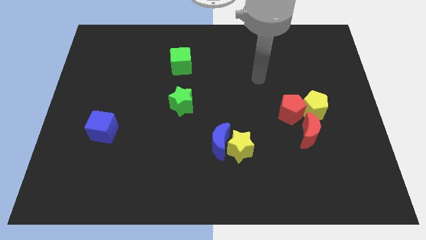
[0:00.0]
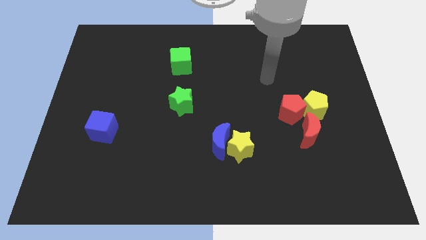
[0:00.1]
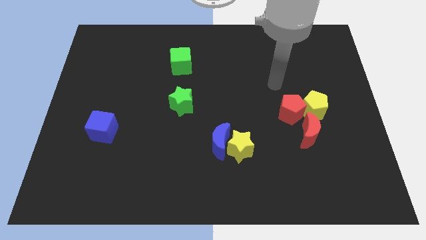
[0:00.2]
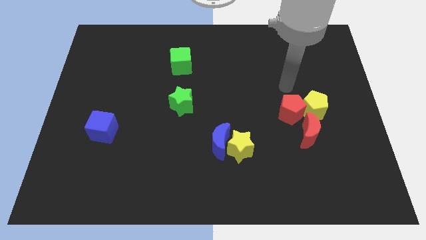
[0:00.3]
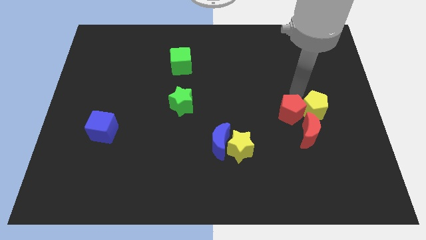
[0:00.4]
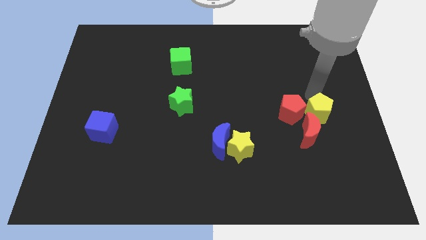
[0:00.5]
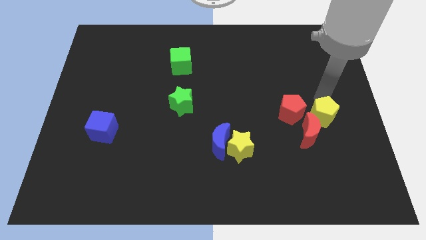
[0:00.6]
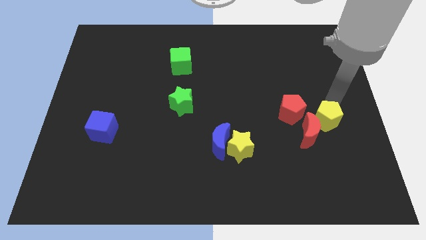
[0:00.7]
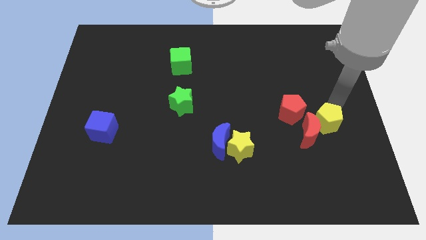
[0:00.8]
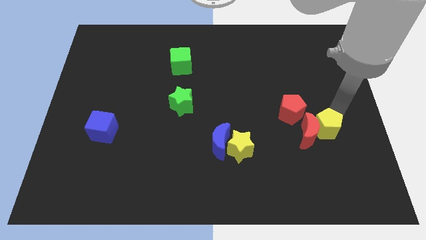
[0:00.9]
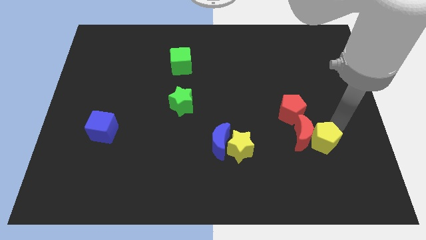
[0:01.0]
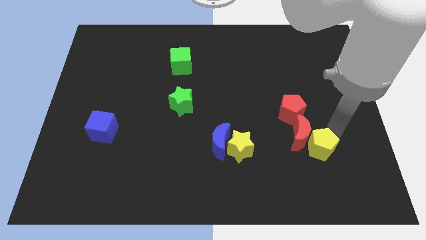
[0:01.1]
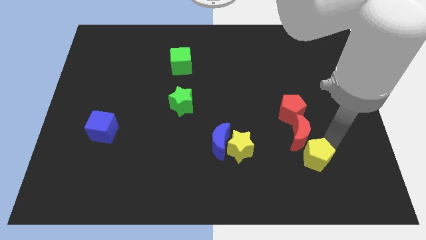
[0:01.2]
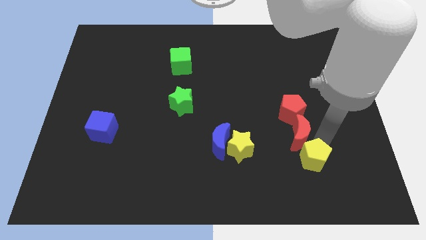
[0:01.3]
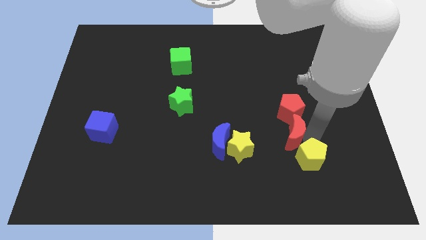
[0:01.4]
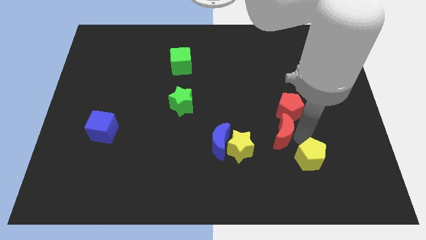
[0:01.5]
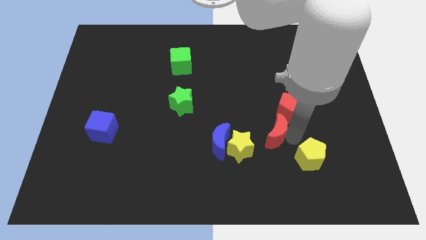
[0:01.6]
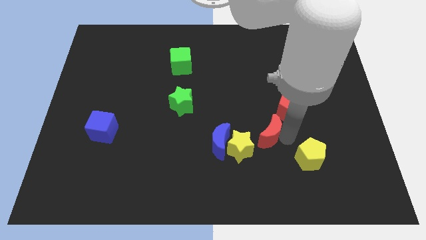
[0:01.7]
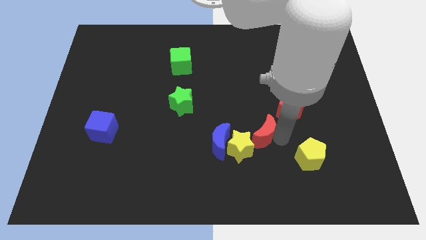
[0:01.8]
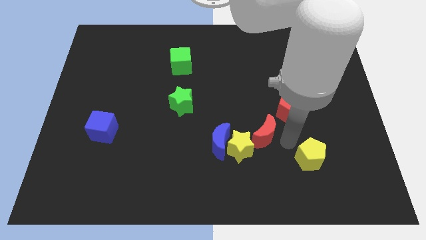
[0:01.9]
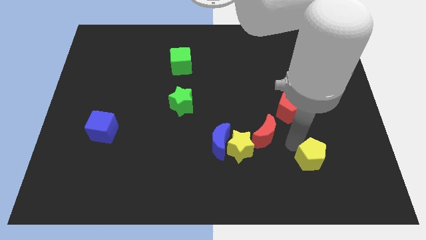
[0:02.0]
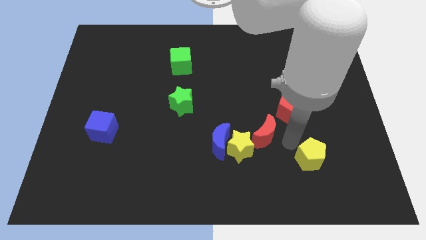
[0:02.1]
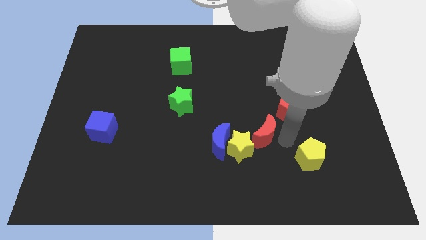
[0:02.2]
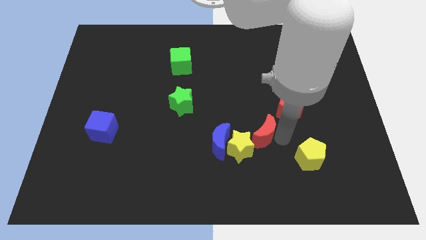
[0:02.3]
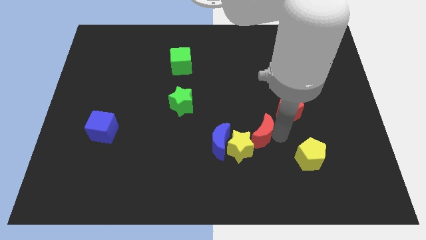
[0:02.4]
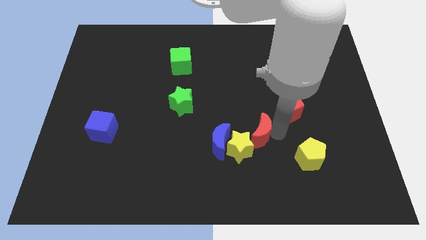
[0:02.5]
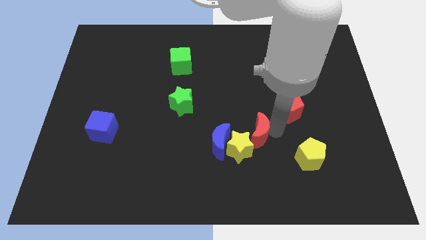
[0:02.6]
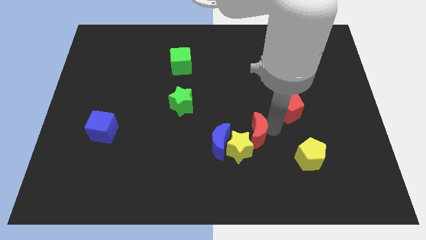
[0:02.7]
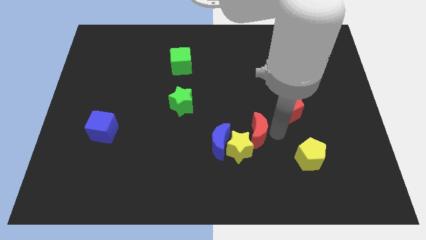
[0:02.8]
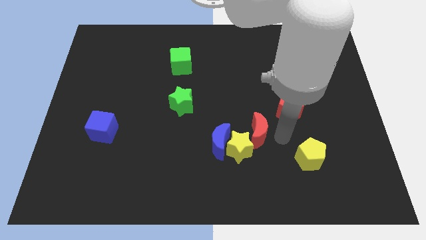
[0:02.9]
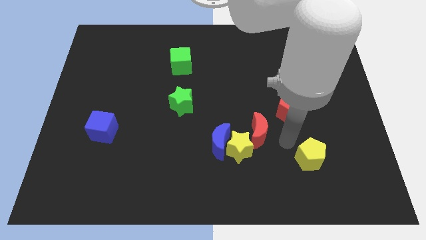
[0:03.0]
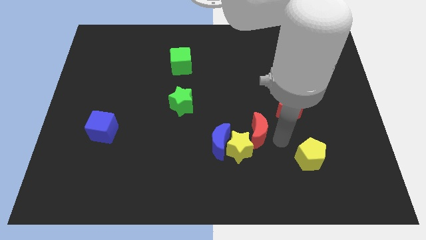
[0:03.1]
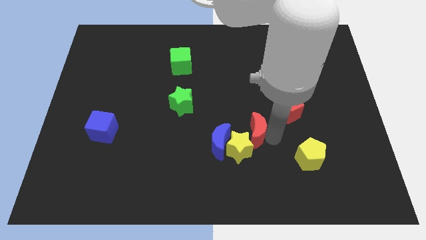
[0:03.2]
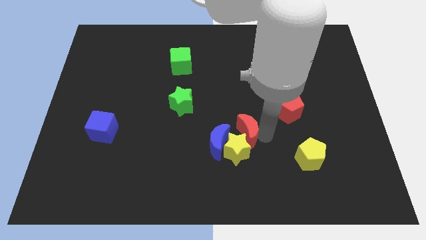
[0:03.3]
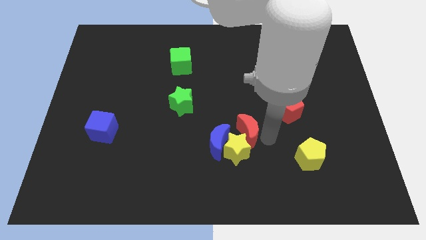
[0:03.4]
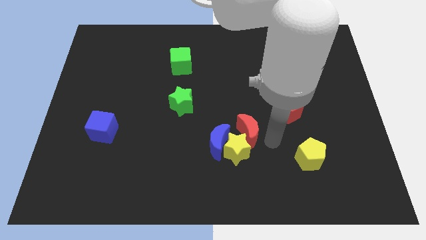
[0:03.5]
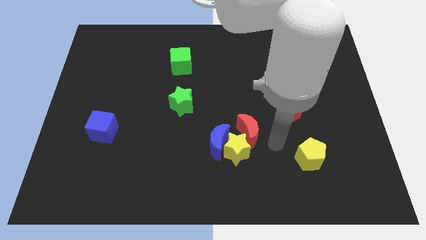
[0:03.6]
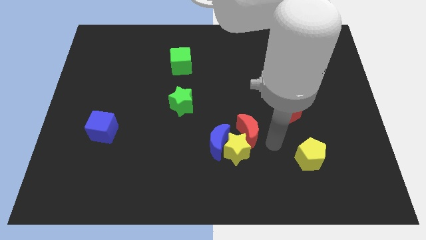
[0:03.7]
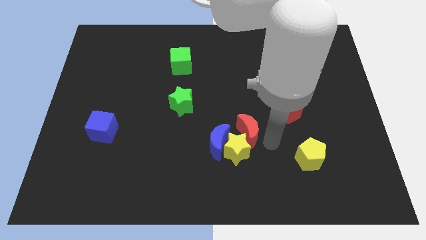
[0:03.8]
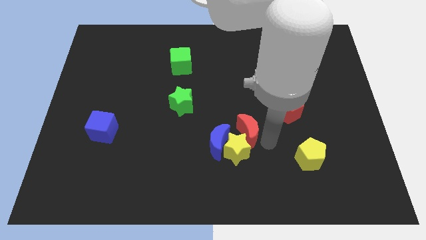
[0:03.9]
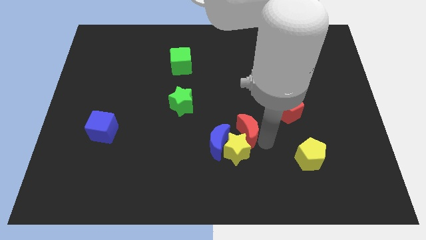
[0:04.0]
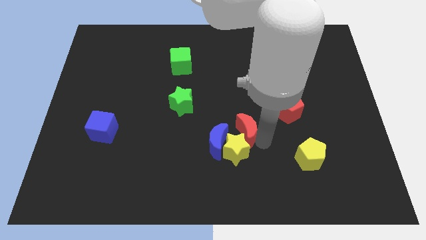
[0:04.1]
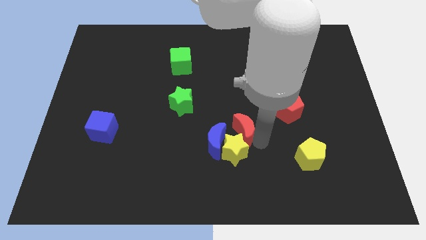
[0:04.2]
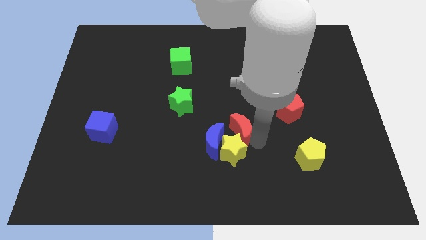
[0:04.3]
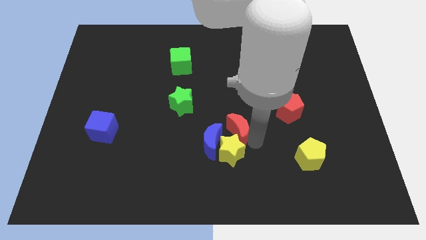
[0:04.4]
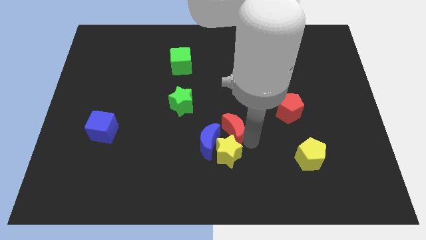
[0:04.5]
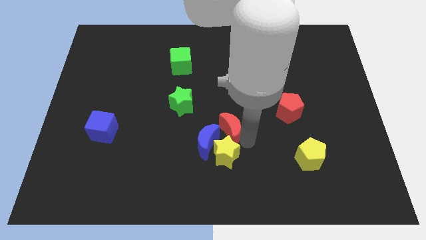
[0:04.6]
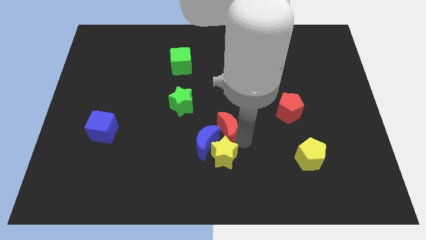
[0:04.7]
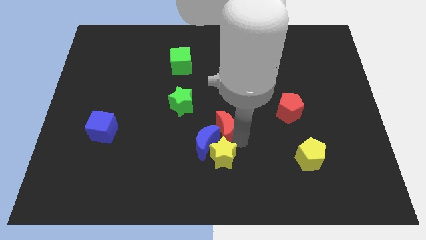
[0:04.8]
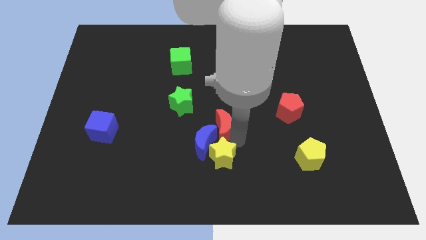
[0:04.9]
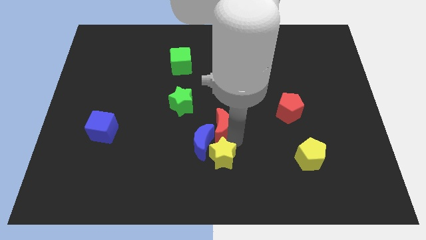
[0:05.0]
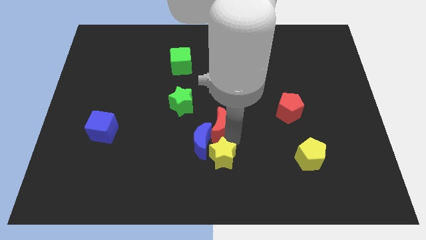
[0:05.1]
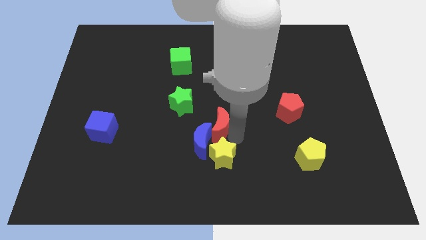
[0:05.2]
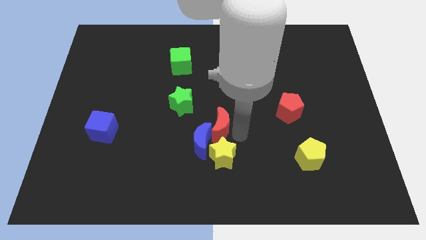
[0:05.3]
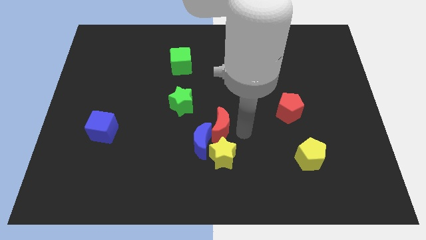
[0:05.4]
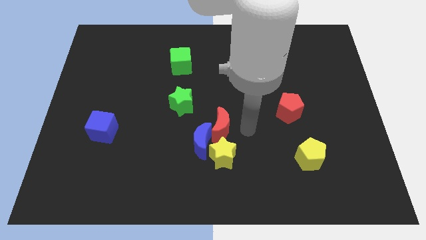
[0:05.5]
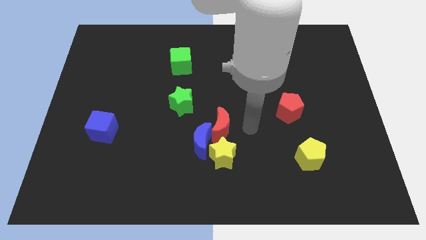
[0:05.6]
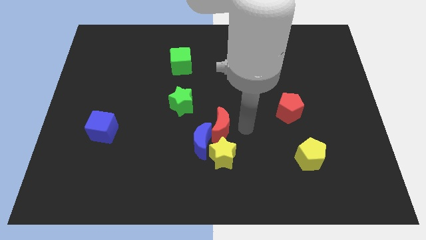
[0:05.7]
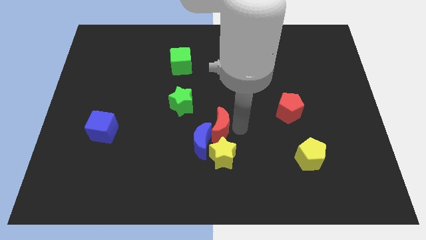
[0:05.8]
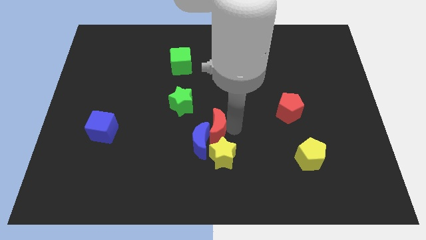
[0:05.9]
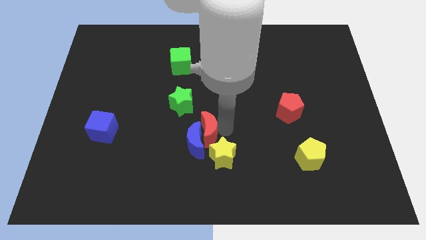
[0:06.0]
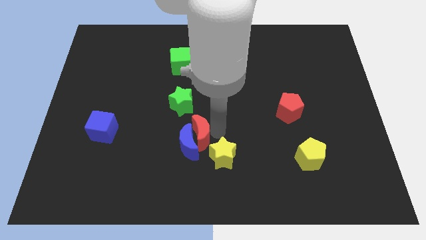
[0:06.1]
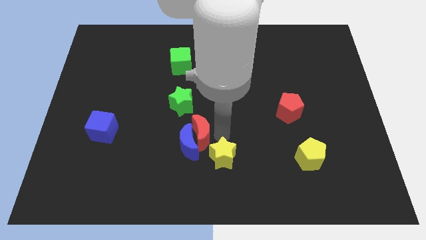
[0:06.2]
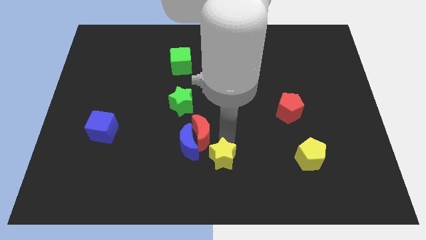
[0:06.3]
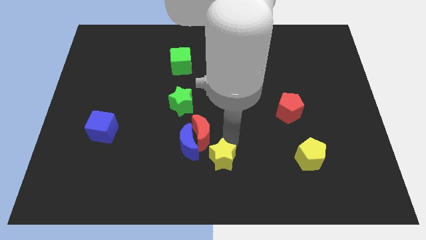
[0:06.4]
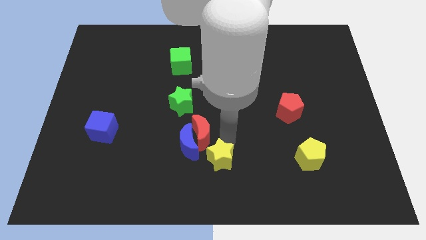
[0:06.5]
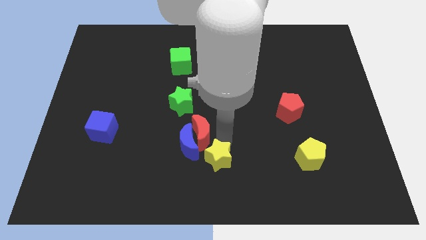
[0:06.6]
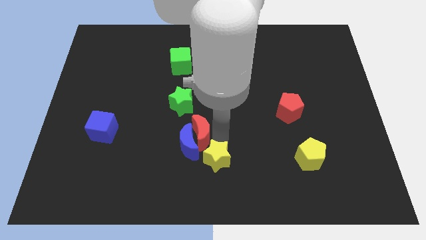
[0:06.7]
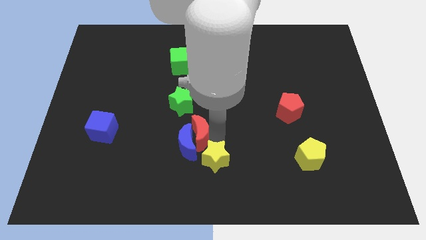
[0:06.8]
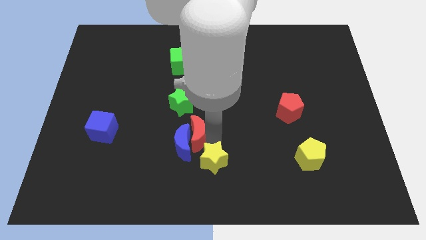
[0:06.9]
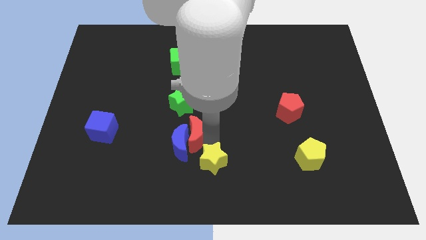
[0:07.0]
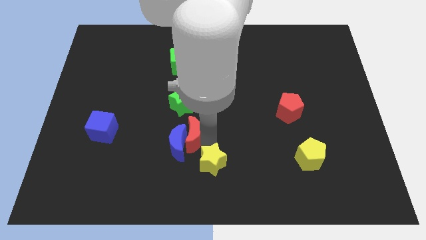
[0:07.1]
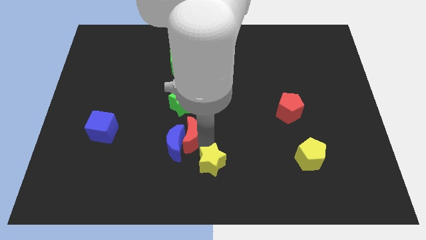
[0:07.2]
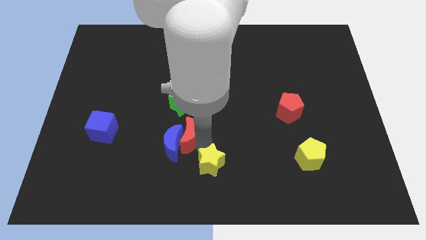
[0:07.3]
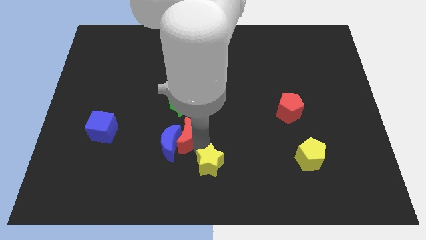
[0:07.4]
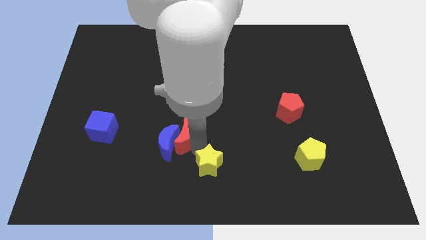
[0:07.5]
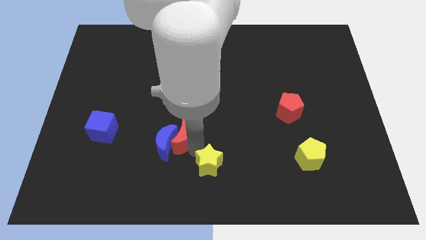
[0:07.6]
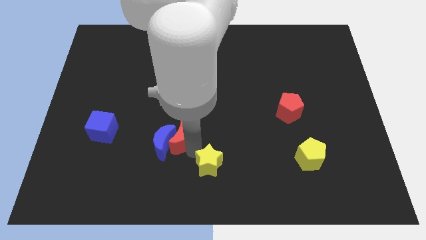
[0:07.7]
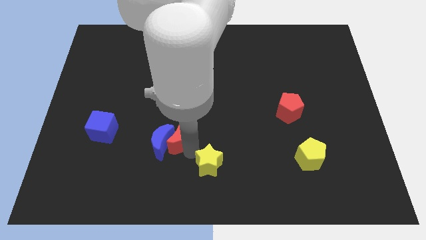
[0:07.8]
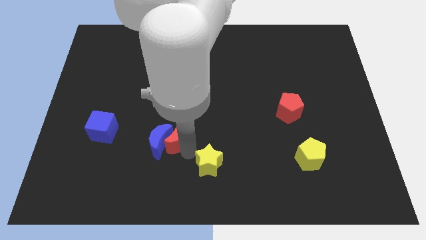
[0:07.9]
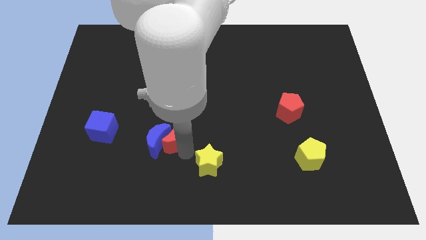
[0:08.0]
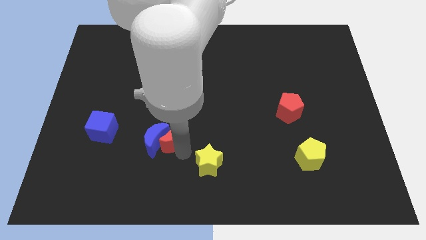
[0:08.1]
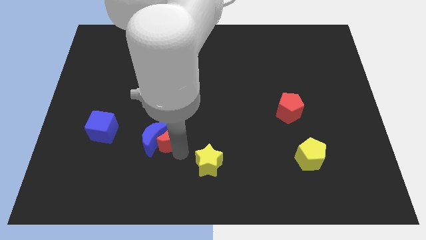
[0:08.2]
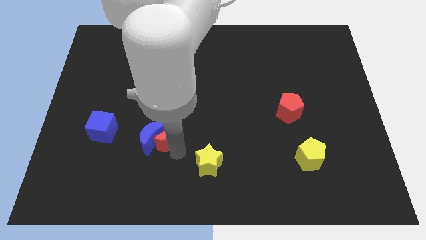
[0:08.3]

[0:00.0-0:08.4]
push the red moon to the right side of the blue cube
